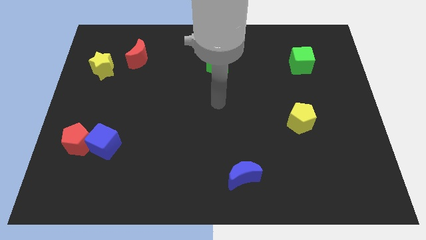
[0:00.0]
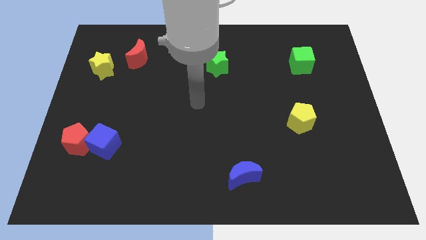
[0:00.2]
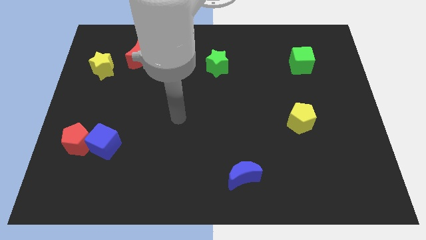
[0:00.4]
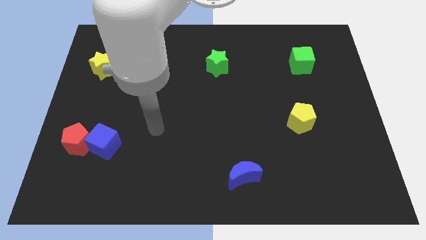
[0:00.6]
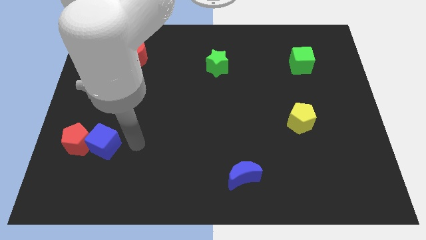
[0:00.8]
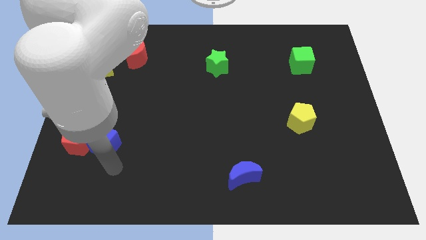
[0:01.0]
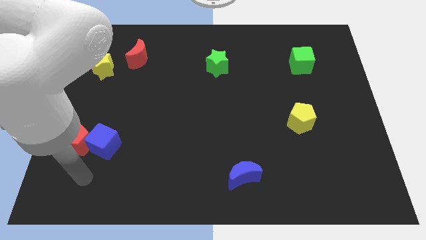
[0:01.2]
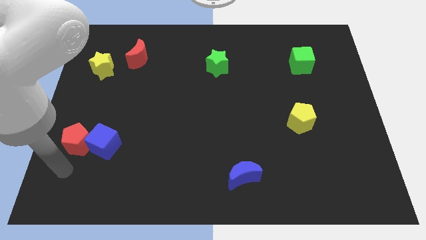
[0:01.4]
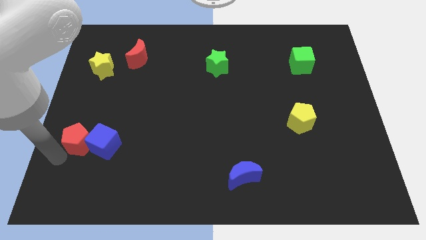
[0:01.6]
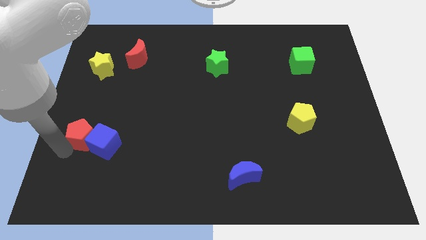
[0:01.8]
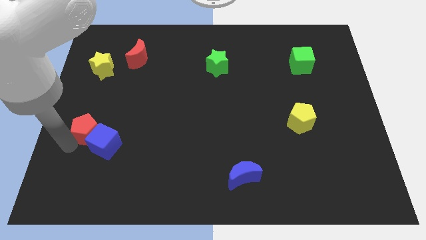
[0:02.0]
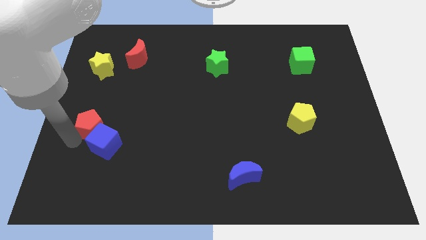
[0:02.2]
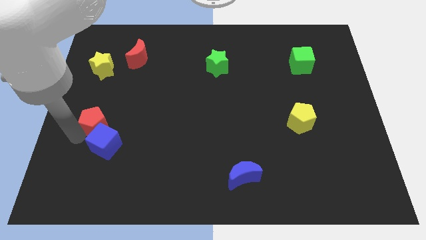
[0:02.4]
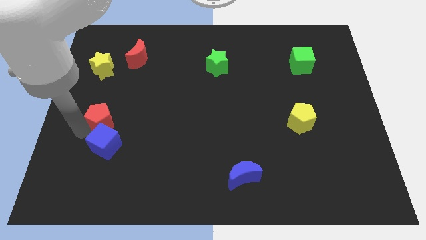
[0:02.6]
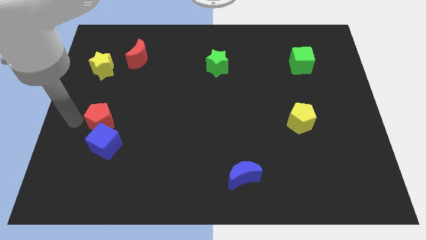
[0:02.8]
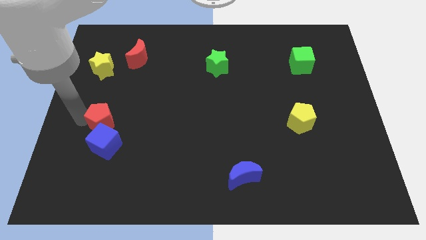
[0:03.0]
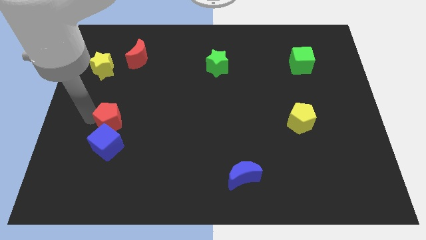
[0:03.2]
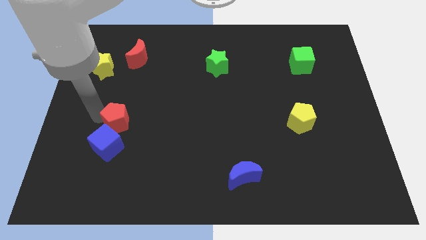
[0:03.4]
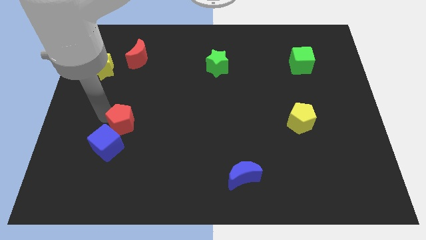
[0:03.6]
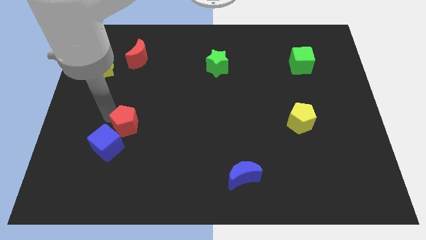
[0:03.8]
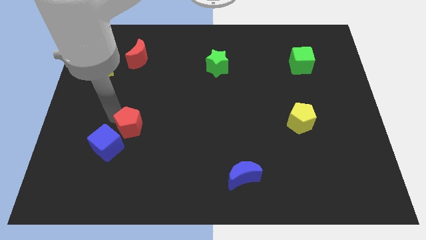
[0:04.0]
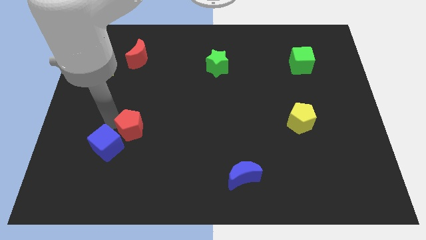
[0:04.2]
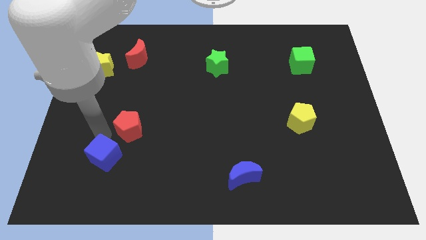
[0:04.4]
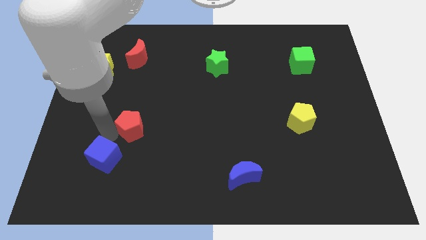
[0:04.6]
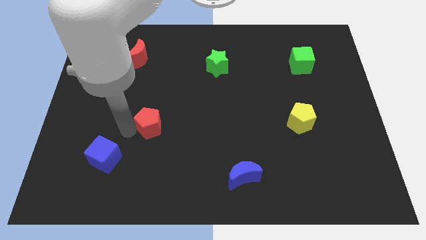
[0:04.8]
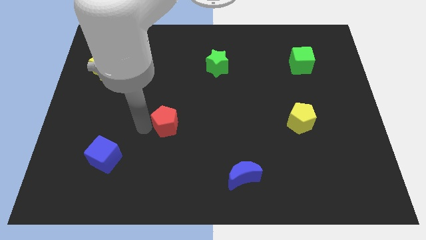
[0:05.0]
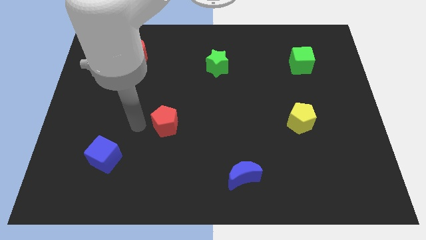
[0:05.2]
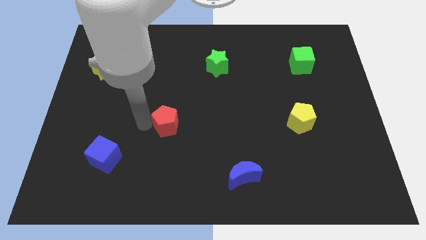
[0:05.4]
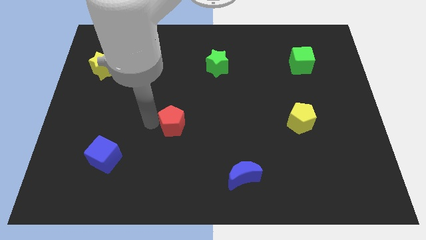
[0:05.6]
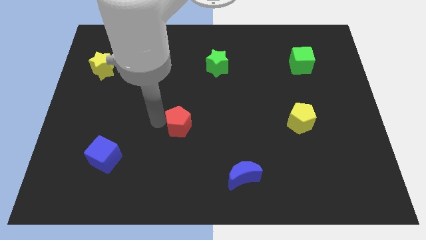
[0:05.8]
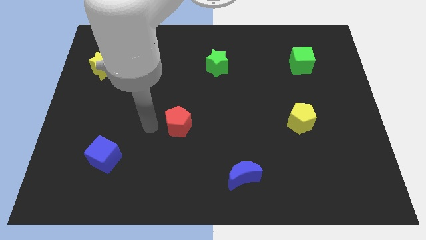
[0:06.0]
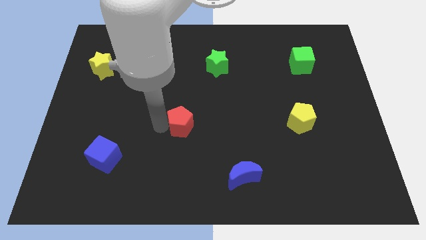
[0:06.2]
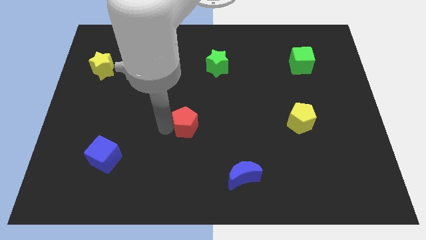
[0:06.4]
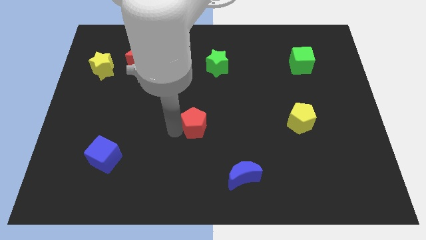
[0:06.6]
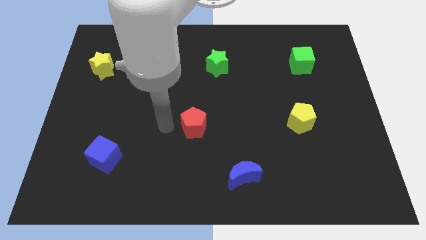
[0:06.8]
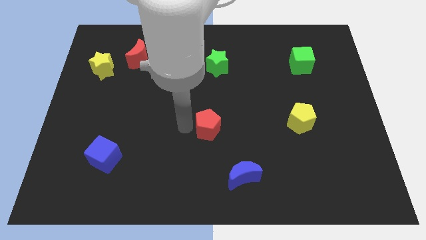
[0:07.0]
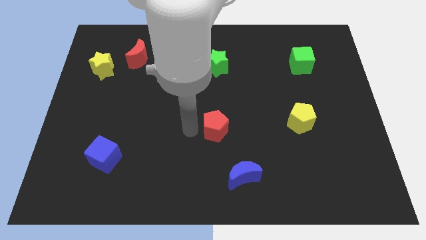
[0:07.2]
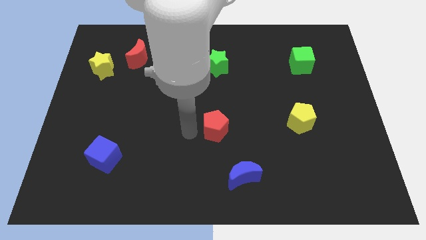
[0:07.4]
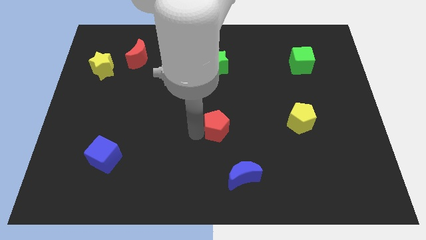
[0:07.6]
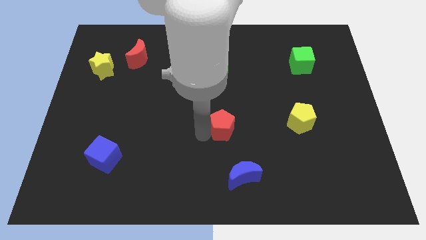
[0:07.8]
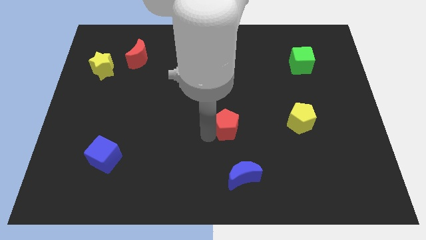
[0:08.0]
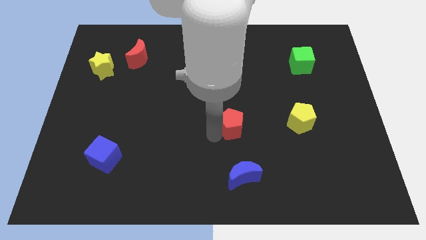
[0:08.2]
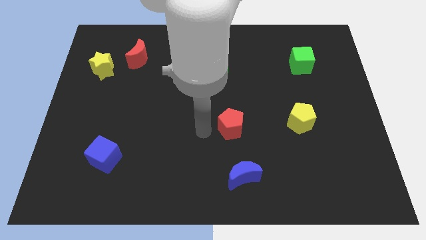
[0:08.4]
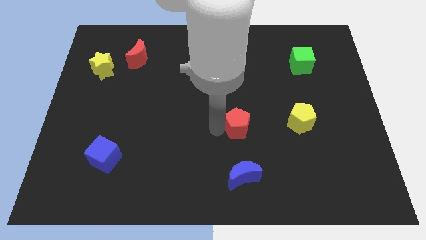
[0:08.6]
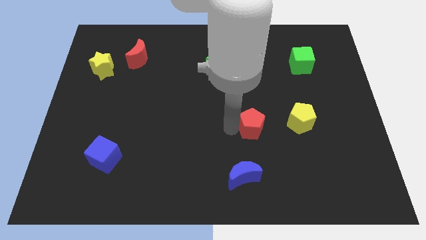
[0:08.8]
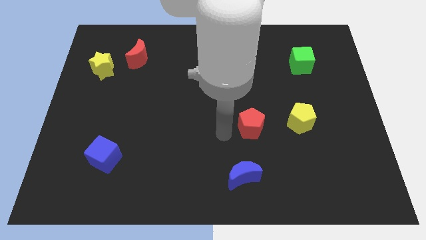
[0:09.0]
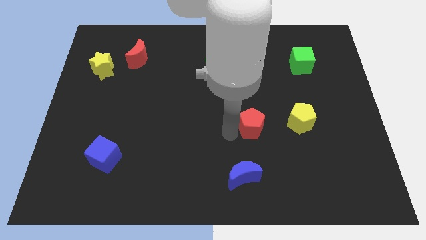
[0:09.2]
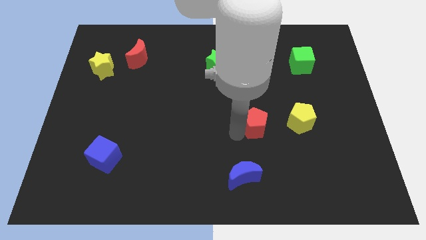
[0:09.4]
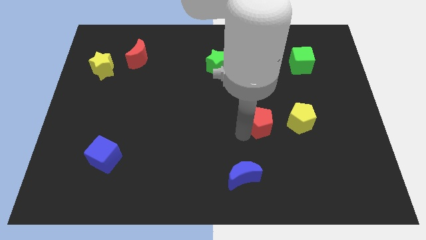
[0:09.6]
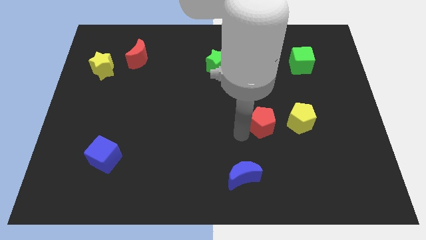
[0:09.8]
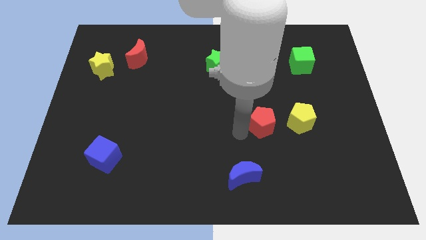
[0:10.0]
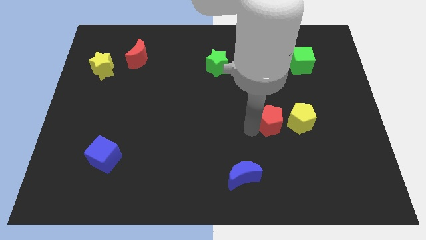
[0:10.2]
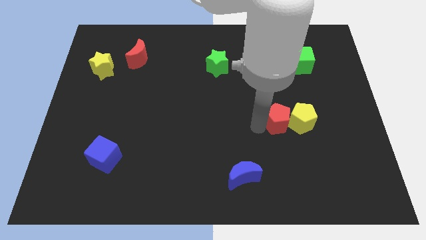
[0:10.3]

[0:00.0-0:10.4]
slide the red pentagon towards the yellow pentagon

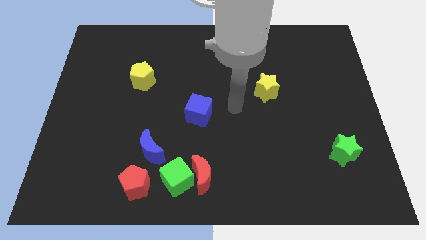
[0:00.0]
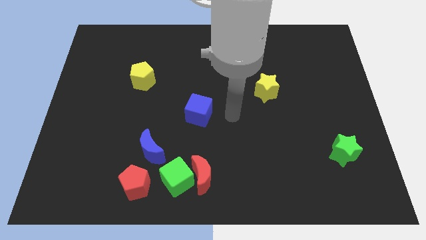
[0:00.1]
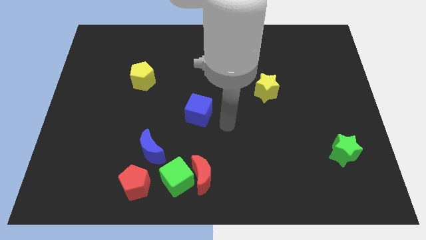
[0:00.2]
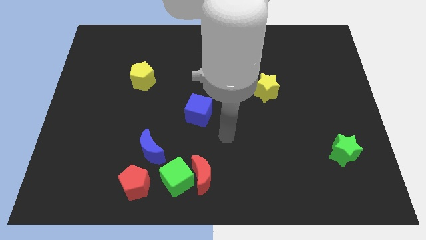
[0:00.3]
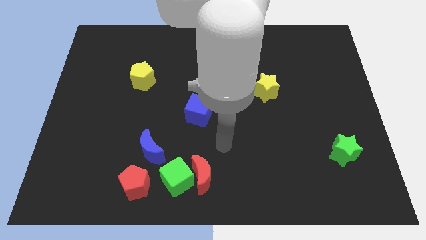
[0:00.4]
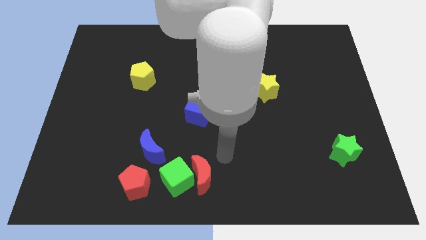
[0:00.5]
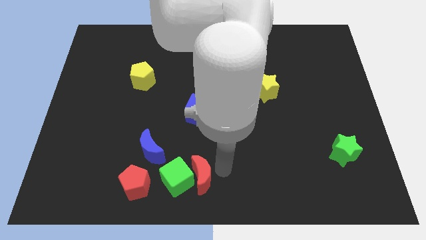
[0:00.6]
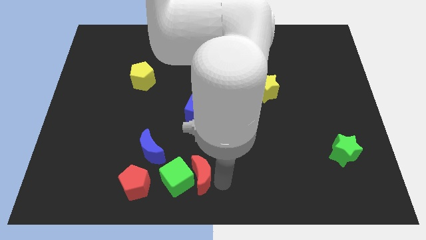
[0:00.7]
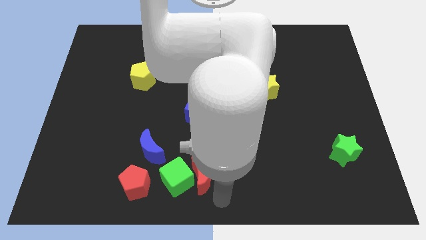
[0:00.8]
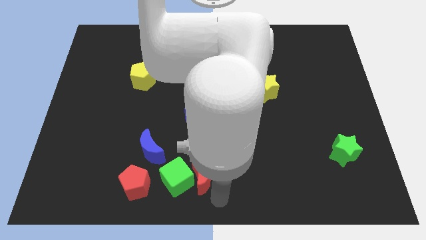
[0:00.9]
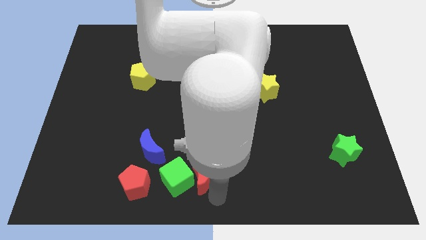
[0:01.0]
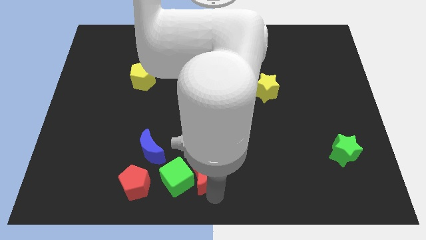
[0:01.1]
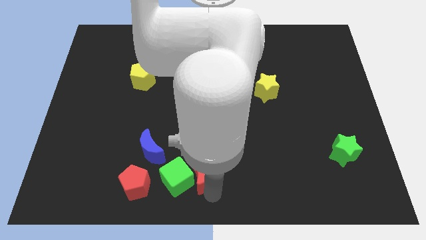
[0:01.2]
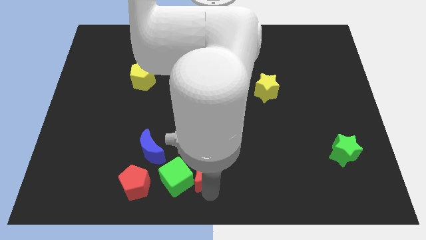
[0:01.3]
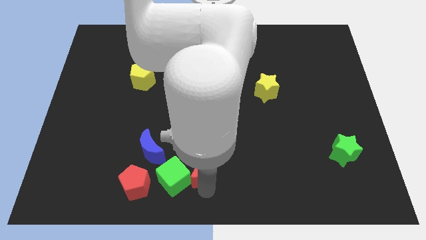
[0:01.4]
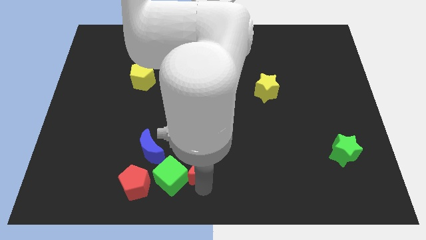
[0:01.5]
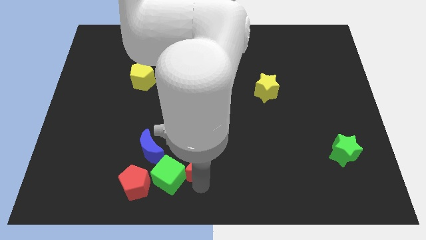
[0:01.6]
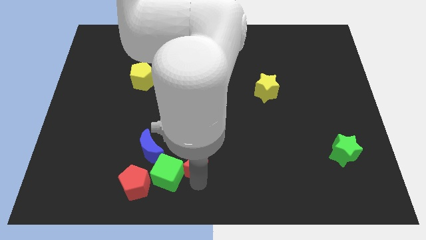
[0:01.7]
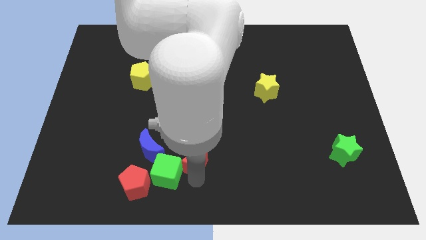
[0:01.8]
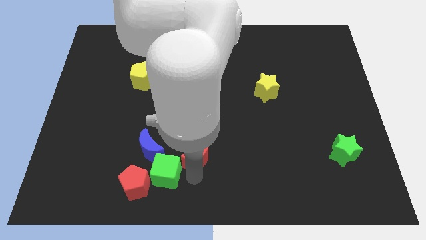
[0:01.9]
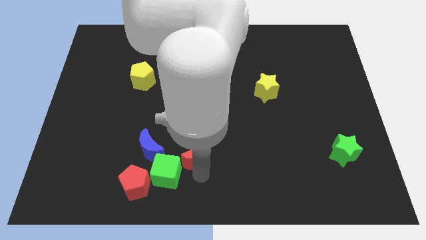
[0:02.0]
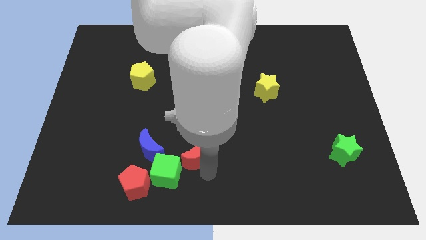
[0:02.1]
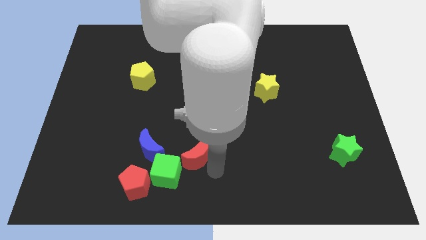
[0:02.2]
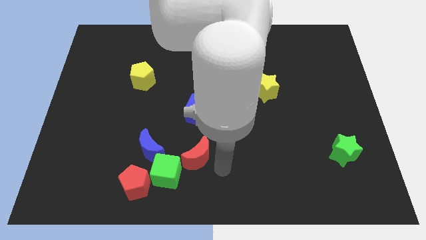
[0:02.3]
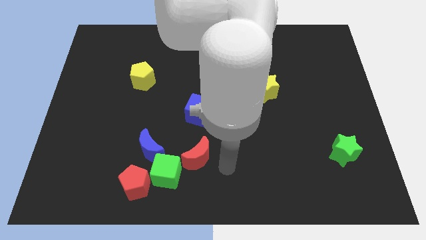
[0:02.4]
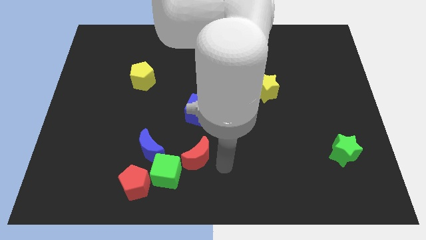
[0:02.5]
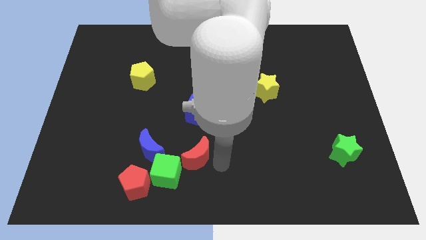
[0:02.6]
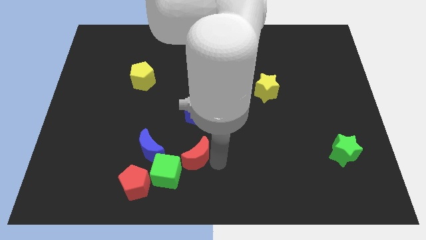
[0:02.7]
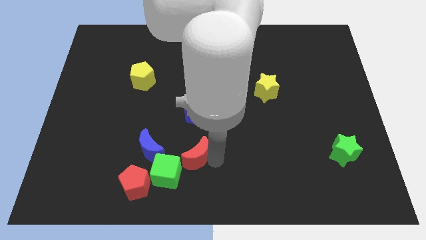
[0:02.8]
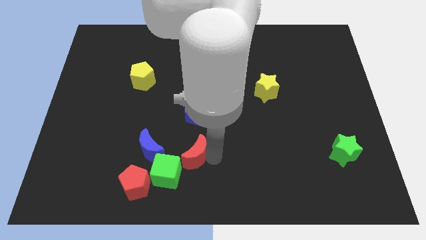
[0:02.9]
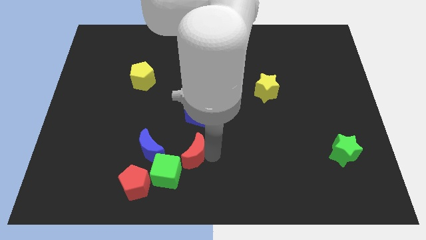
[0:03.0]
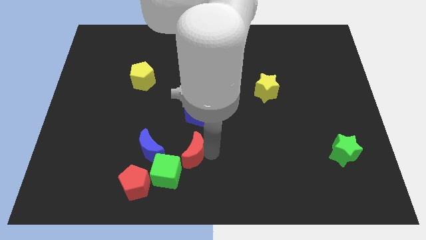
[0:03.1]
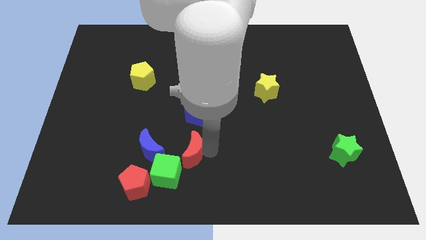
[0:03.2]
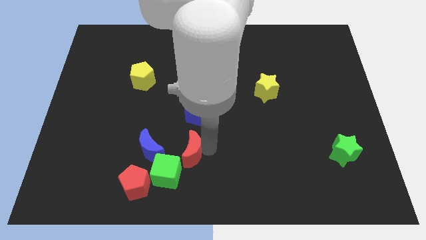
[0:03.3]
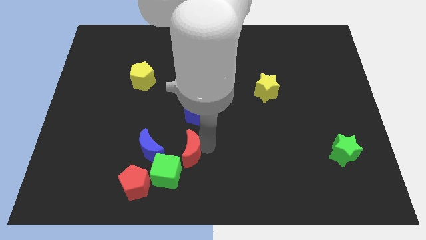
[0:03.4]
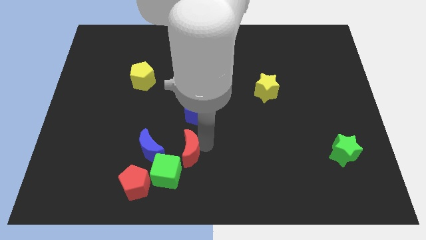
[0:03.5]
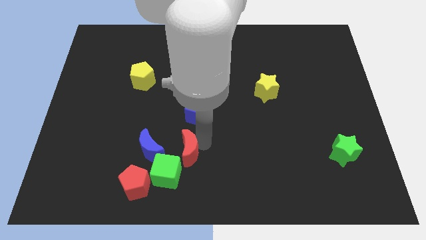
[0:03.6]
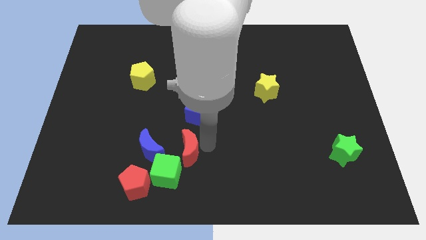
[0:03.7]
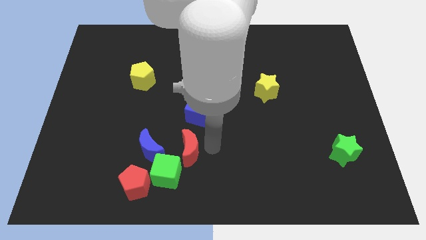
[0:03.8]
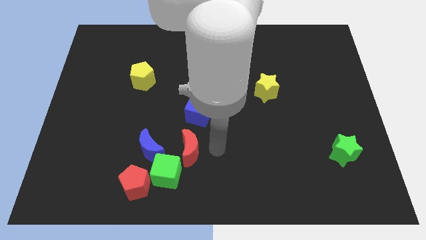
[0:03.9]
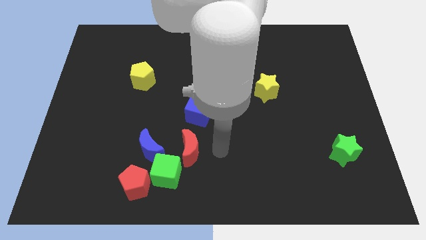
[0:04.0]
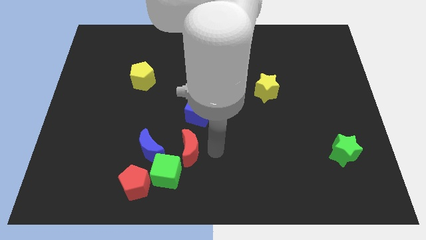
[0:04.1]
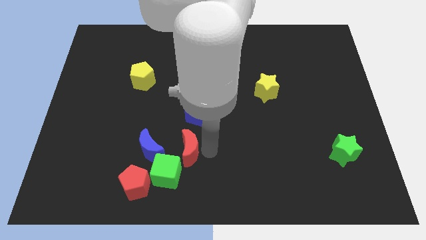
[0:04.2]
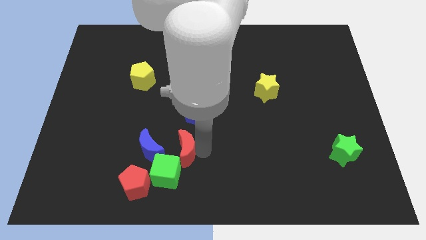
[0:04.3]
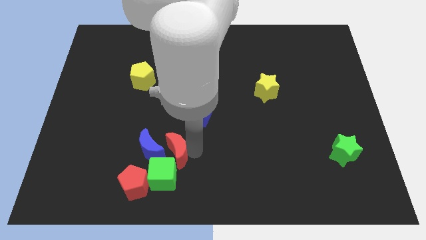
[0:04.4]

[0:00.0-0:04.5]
push the red moon next to the blue moon
